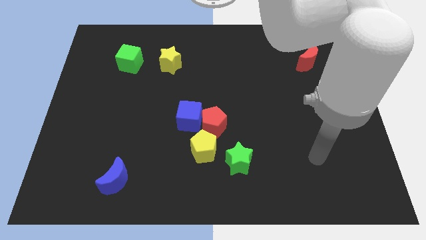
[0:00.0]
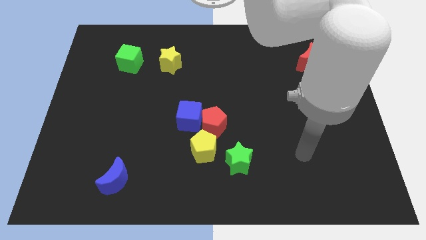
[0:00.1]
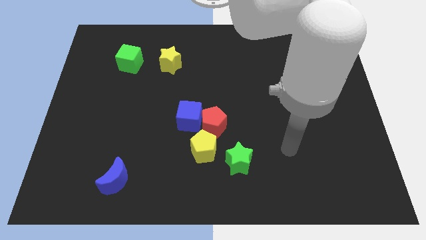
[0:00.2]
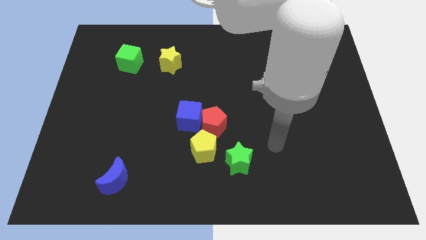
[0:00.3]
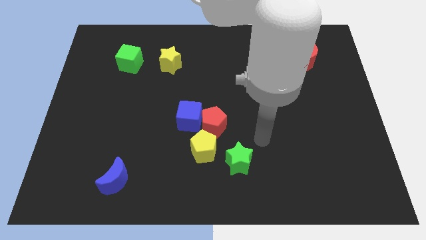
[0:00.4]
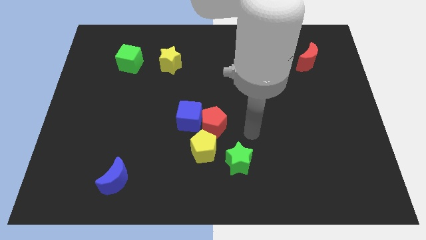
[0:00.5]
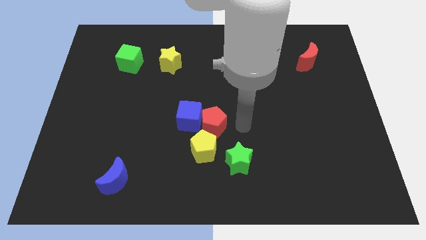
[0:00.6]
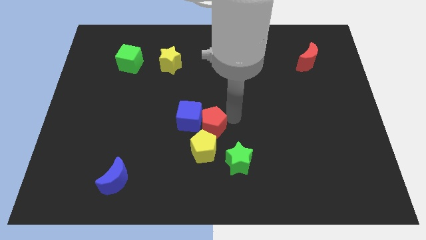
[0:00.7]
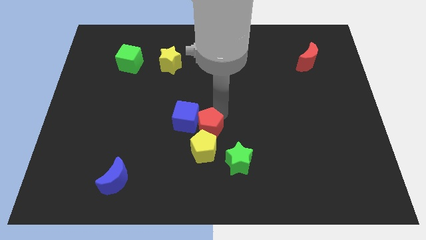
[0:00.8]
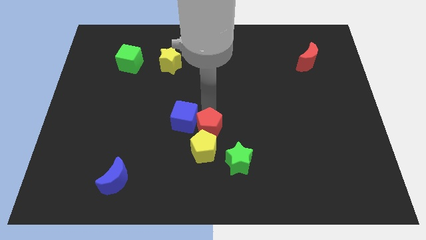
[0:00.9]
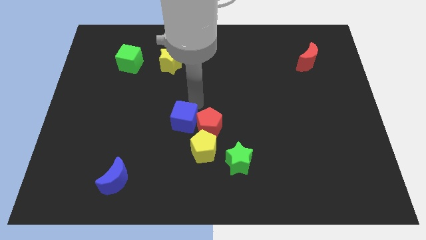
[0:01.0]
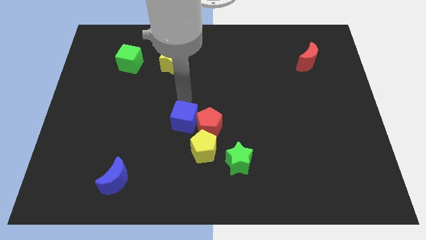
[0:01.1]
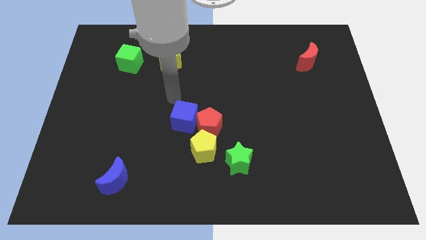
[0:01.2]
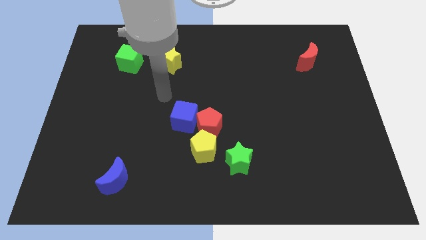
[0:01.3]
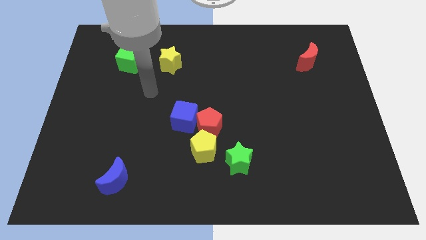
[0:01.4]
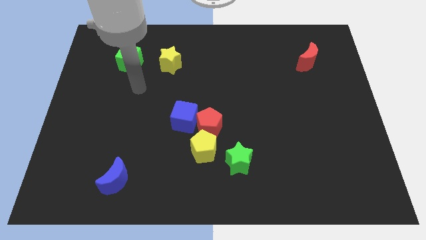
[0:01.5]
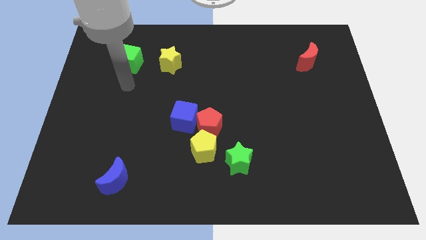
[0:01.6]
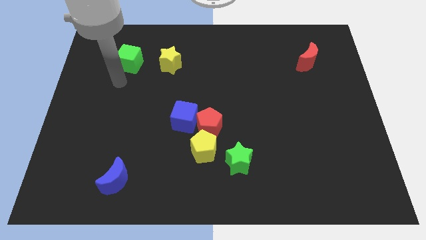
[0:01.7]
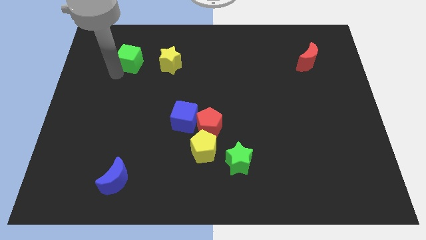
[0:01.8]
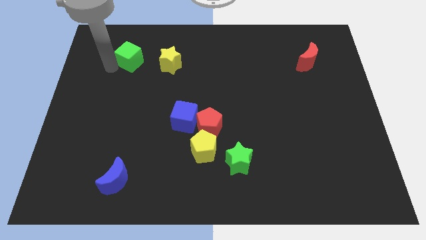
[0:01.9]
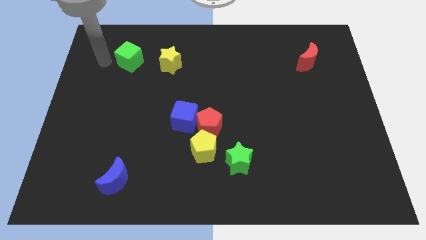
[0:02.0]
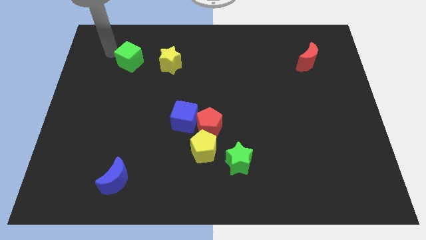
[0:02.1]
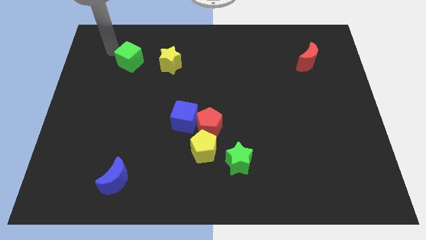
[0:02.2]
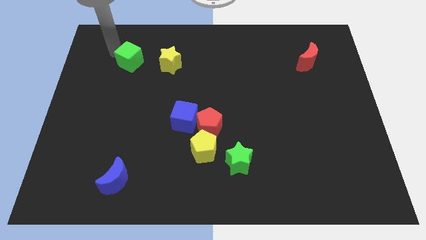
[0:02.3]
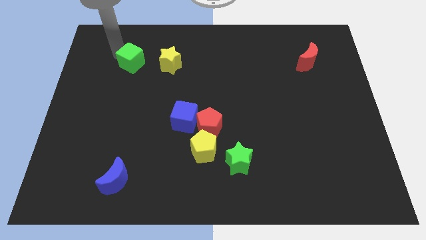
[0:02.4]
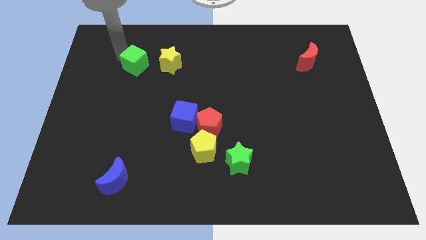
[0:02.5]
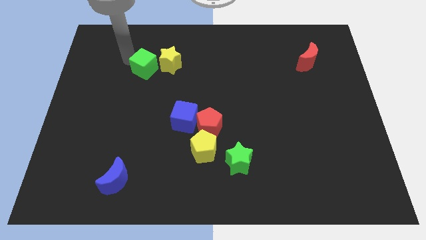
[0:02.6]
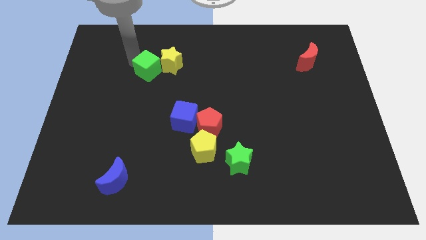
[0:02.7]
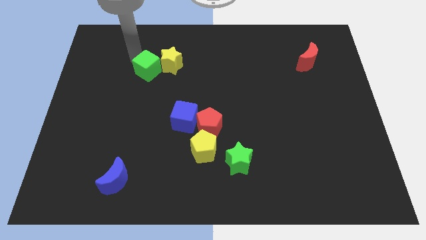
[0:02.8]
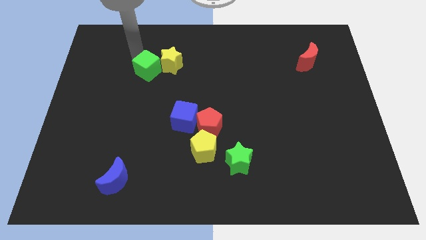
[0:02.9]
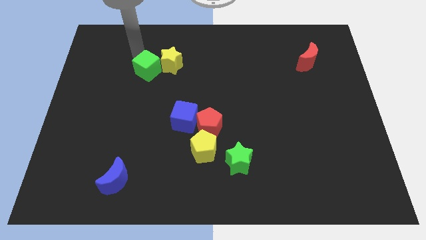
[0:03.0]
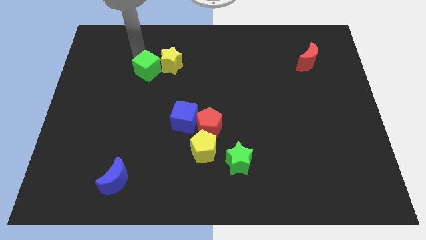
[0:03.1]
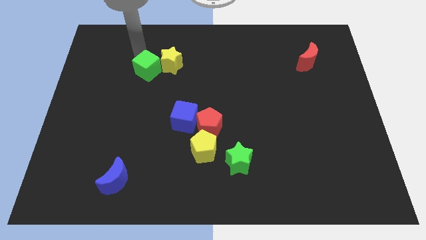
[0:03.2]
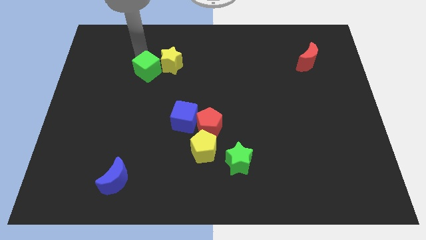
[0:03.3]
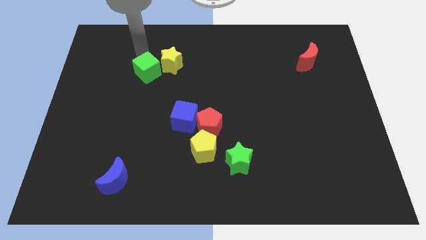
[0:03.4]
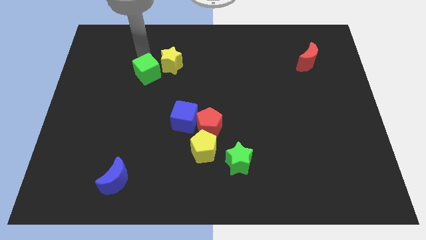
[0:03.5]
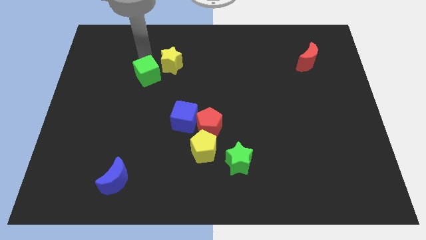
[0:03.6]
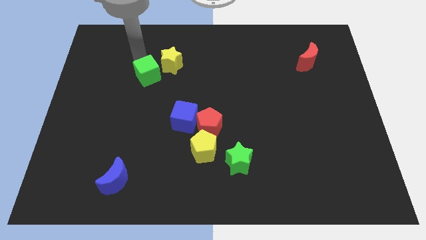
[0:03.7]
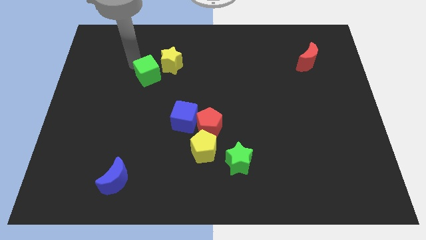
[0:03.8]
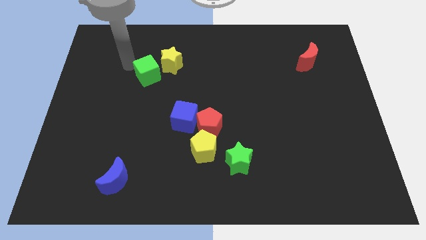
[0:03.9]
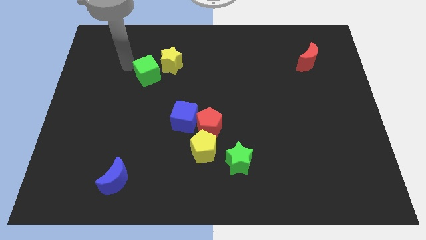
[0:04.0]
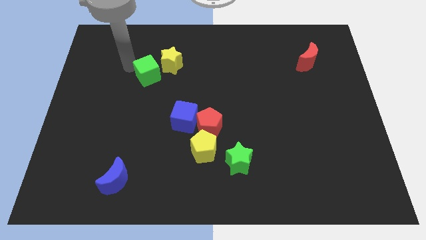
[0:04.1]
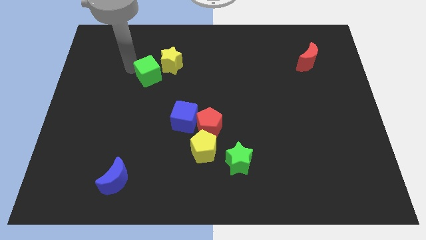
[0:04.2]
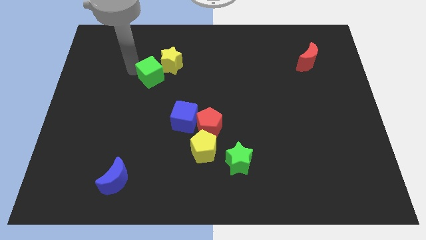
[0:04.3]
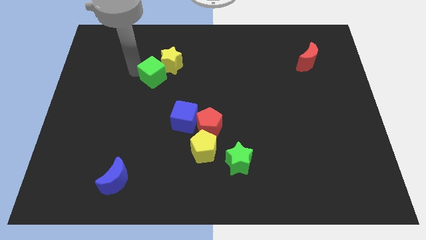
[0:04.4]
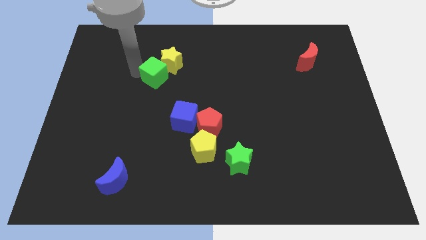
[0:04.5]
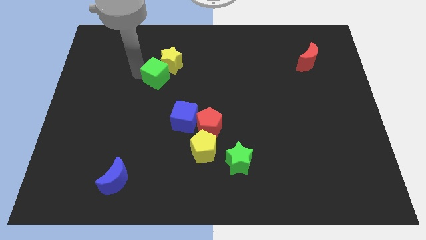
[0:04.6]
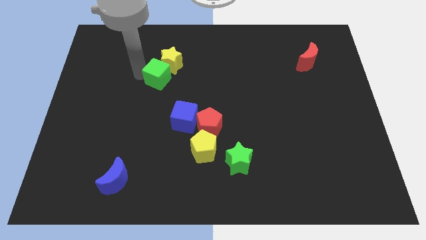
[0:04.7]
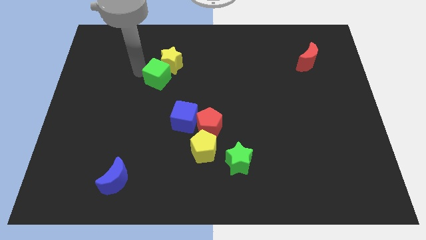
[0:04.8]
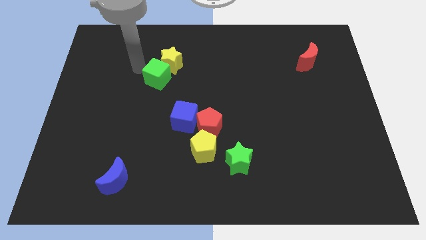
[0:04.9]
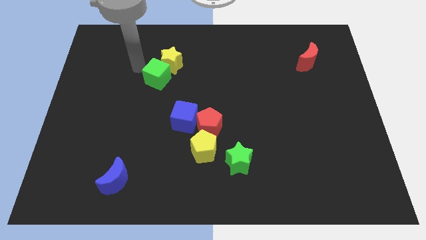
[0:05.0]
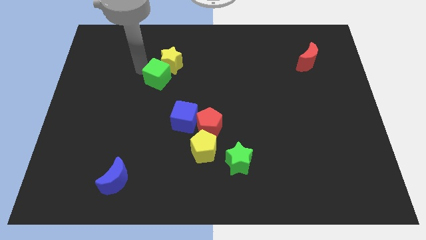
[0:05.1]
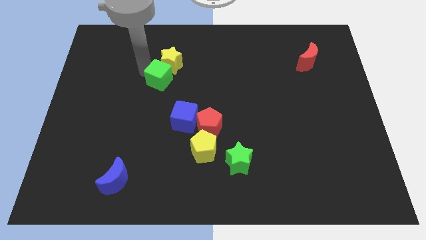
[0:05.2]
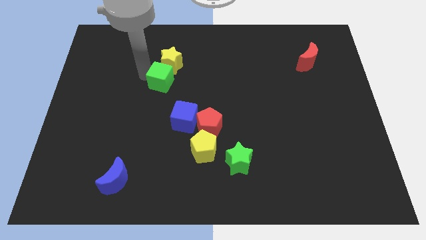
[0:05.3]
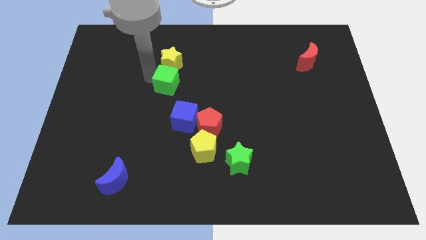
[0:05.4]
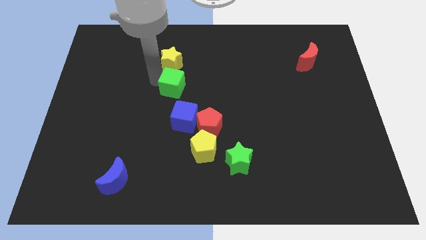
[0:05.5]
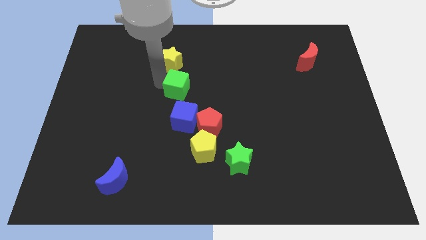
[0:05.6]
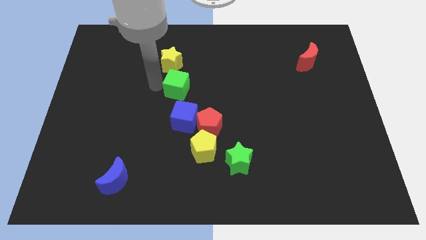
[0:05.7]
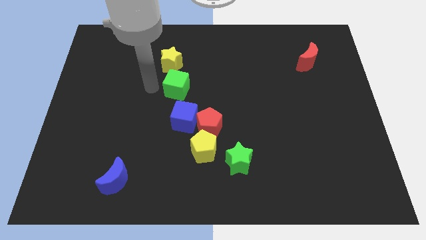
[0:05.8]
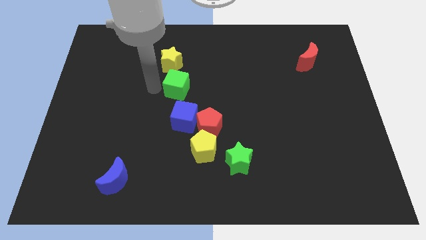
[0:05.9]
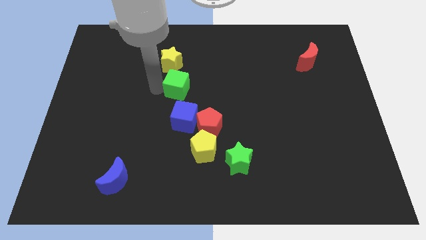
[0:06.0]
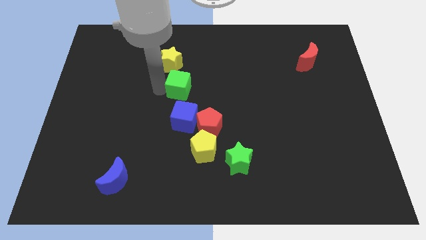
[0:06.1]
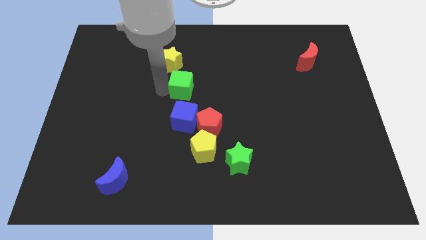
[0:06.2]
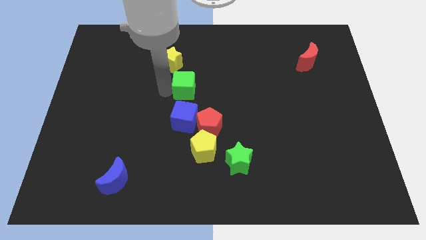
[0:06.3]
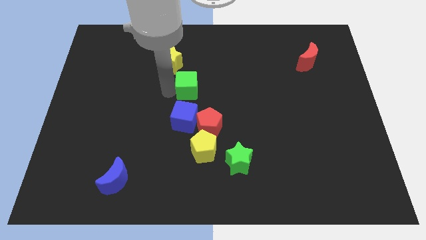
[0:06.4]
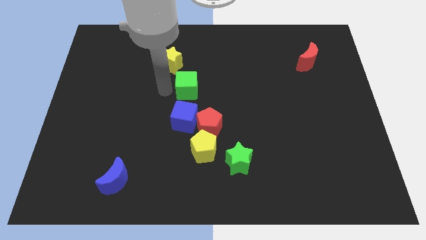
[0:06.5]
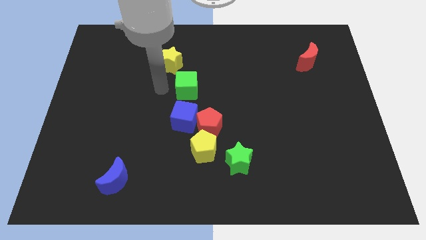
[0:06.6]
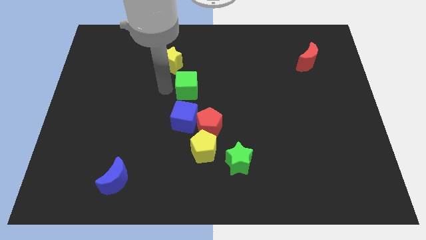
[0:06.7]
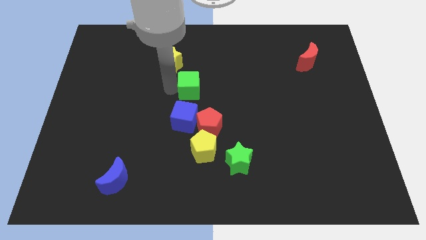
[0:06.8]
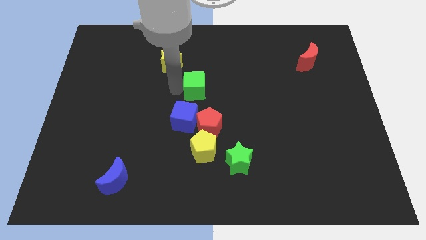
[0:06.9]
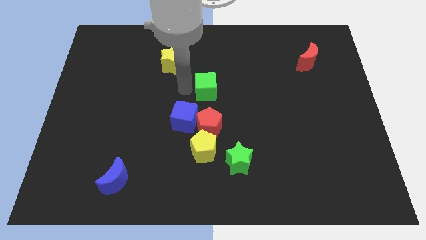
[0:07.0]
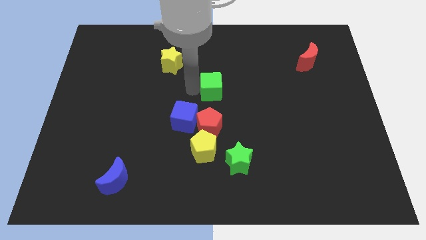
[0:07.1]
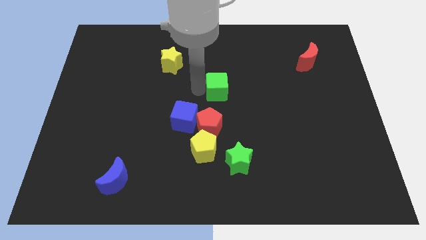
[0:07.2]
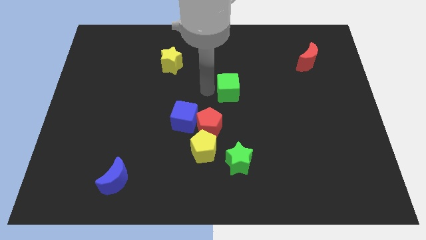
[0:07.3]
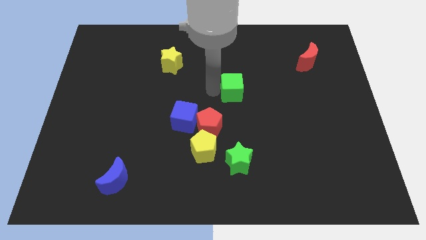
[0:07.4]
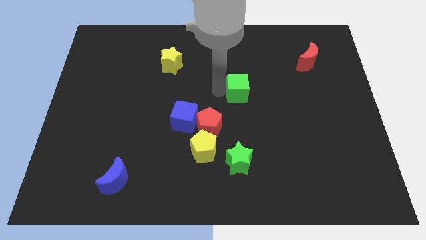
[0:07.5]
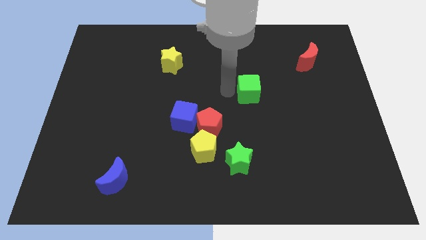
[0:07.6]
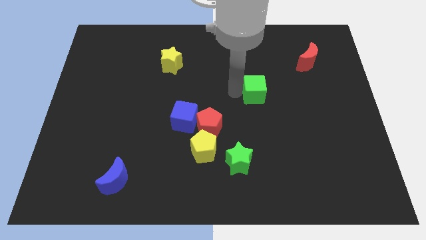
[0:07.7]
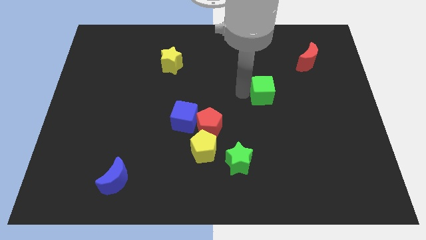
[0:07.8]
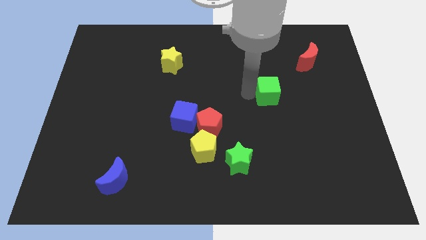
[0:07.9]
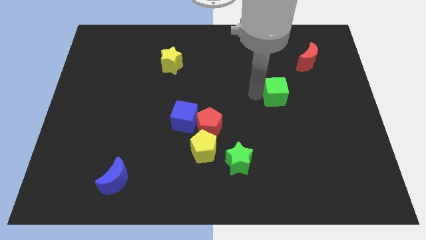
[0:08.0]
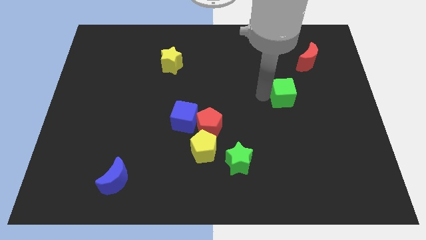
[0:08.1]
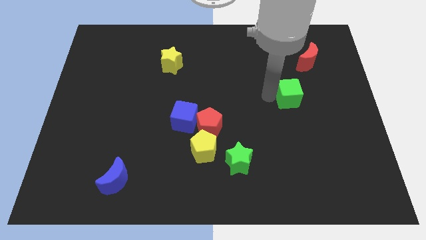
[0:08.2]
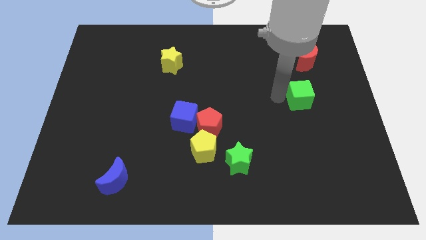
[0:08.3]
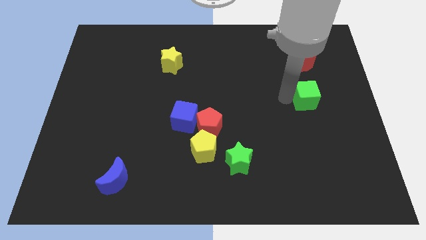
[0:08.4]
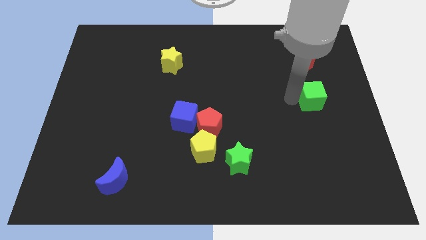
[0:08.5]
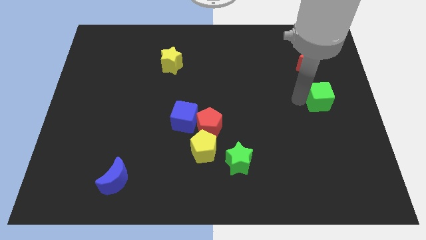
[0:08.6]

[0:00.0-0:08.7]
slide the green cube to the right side
